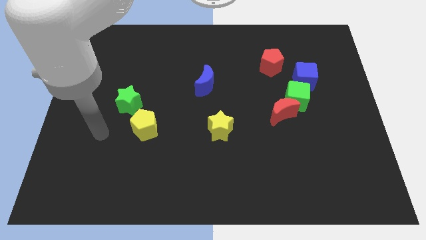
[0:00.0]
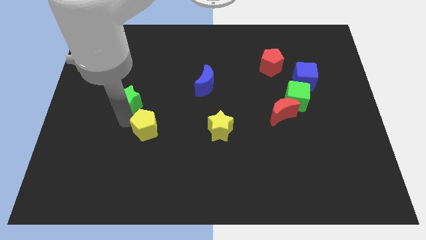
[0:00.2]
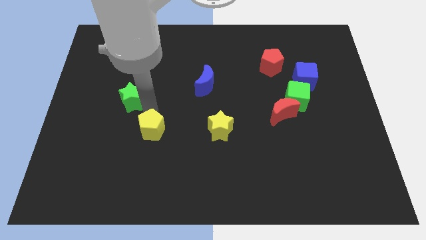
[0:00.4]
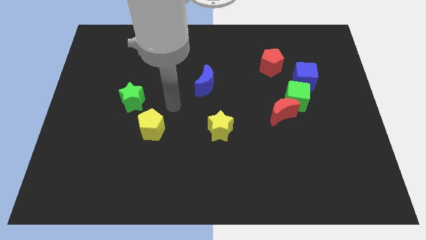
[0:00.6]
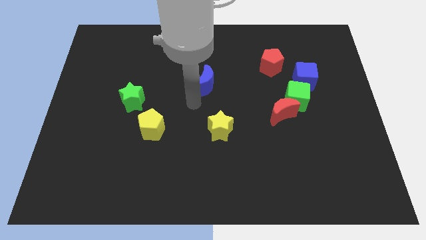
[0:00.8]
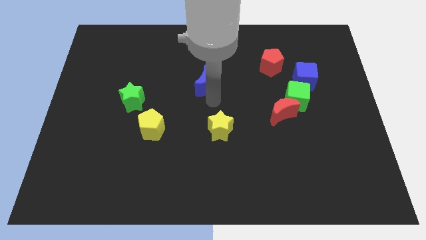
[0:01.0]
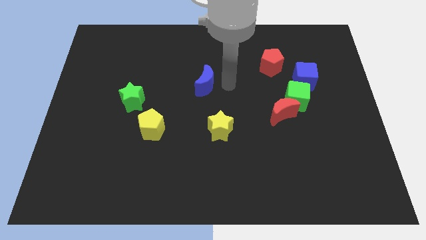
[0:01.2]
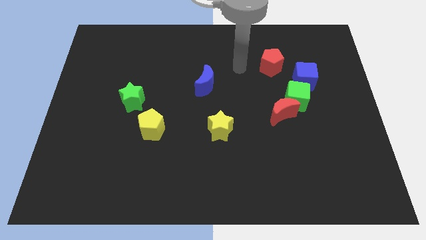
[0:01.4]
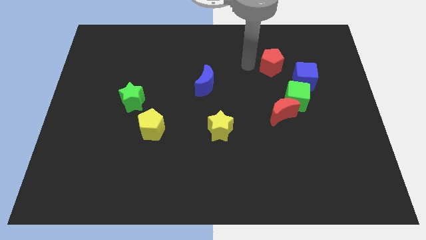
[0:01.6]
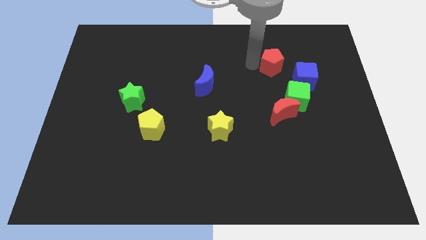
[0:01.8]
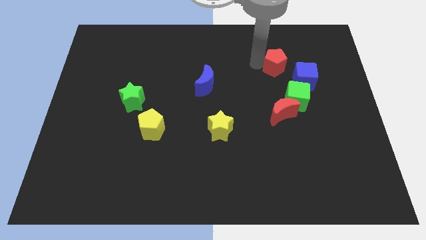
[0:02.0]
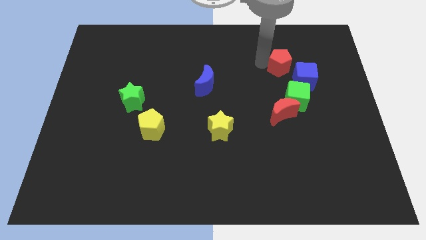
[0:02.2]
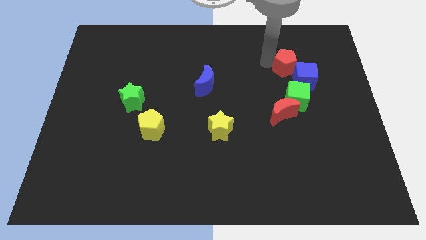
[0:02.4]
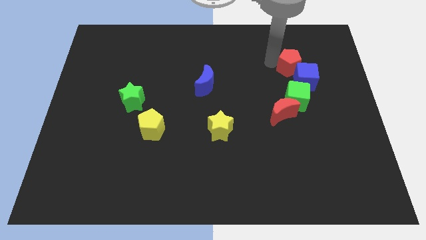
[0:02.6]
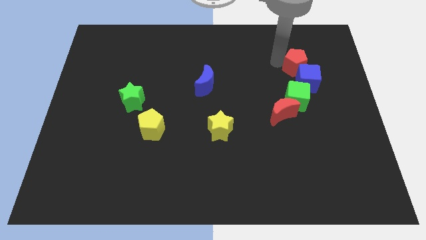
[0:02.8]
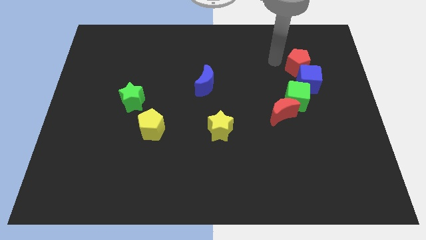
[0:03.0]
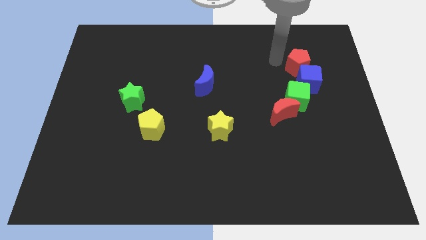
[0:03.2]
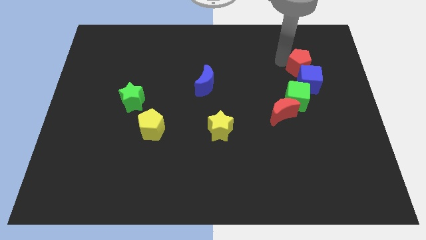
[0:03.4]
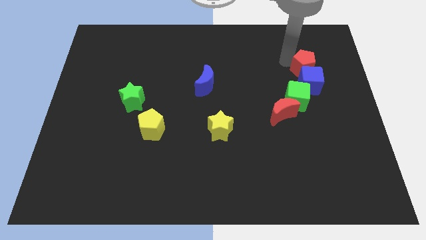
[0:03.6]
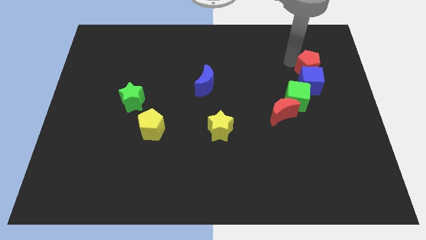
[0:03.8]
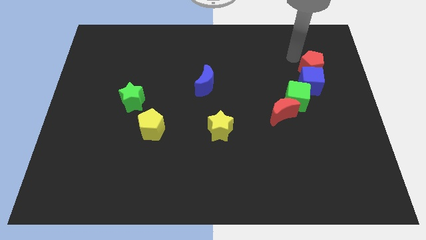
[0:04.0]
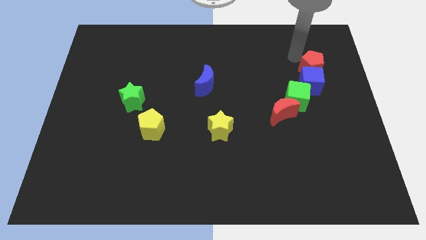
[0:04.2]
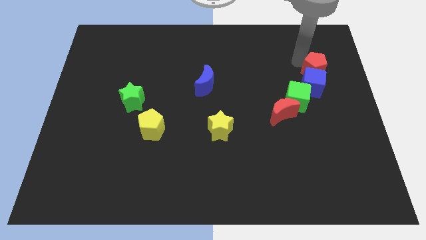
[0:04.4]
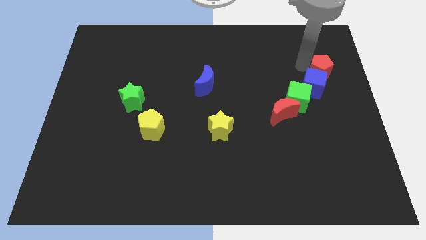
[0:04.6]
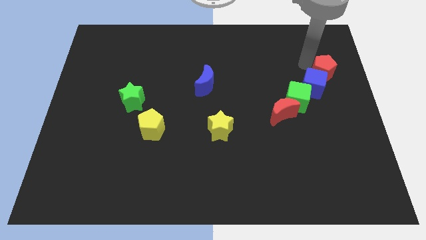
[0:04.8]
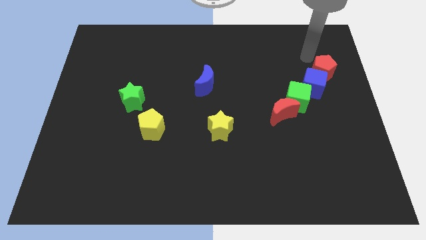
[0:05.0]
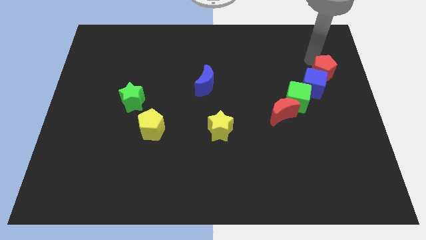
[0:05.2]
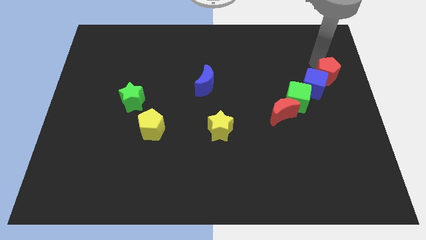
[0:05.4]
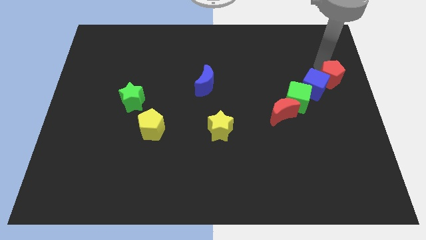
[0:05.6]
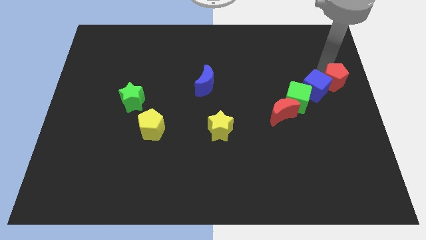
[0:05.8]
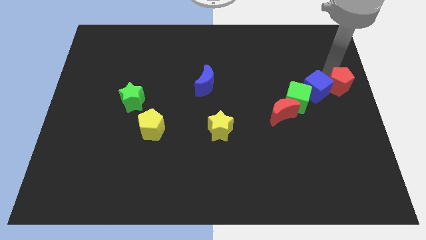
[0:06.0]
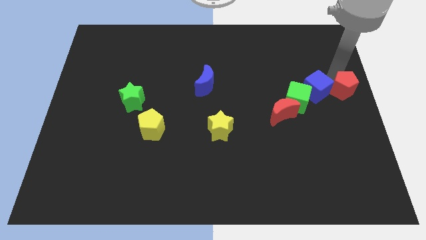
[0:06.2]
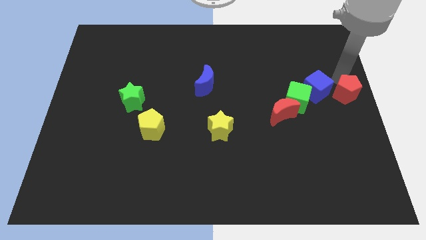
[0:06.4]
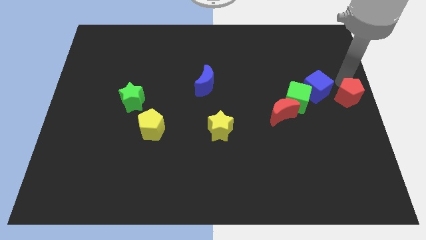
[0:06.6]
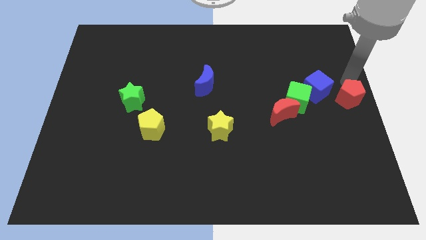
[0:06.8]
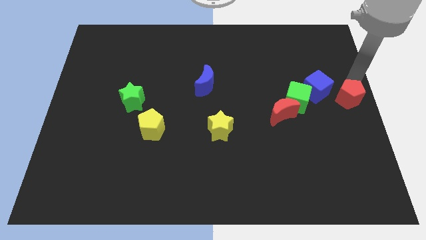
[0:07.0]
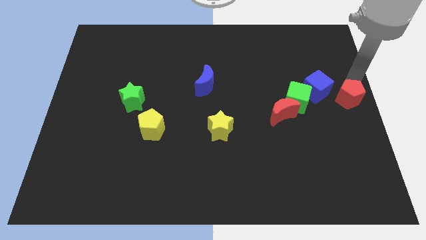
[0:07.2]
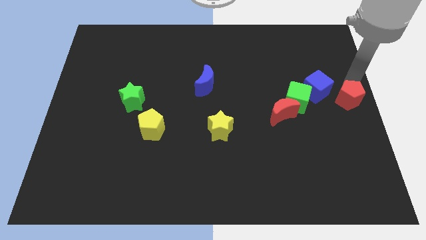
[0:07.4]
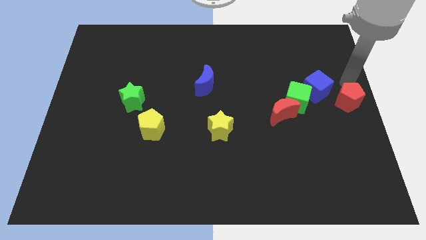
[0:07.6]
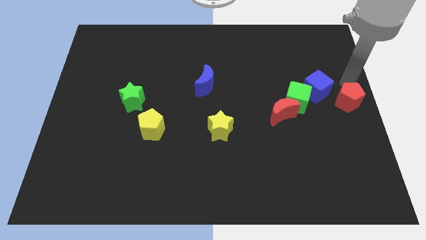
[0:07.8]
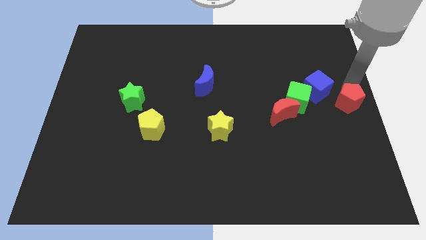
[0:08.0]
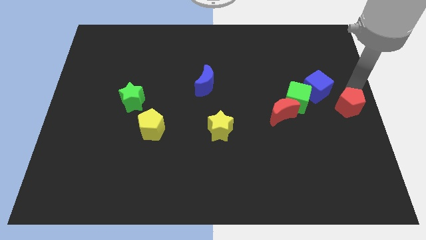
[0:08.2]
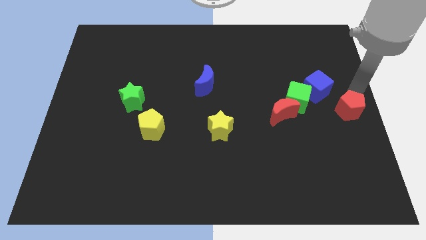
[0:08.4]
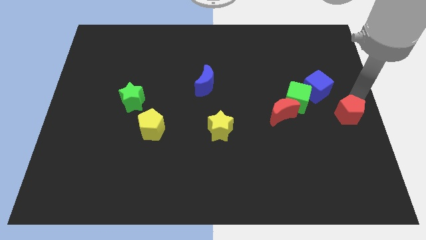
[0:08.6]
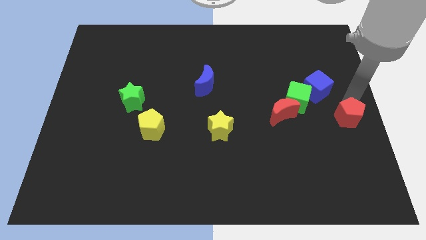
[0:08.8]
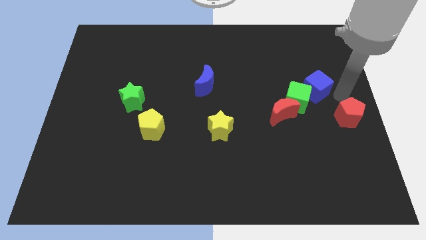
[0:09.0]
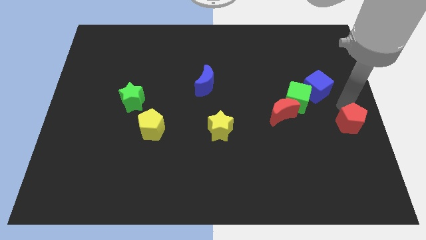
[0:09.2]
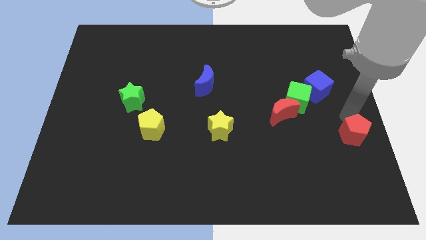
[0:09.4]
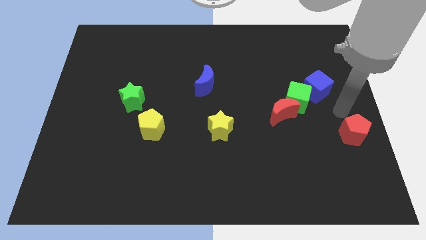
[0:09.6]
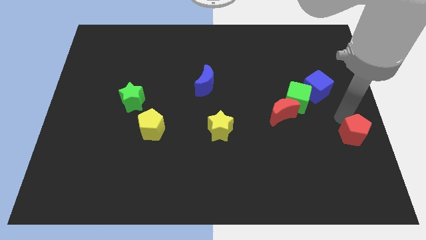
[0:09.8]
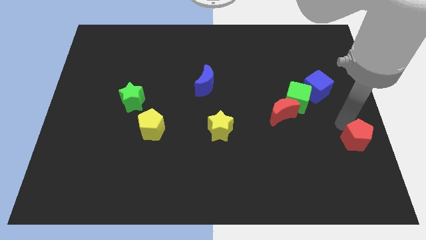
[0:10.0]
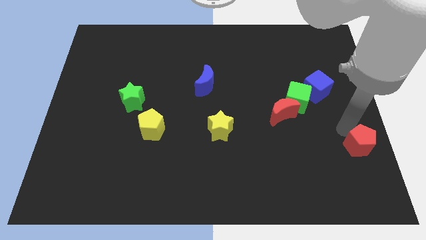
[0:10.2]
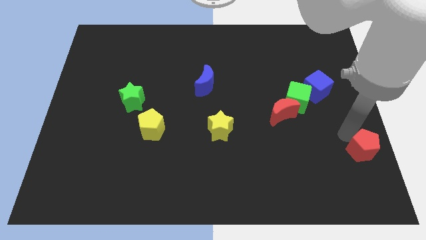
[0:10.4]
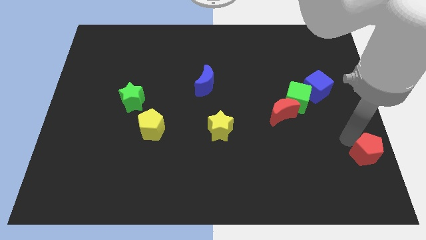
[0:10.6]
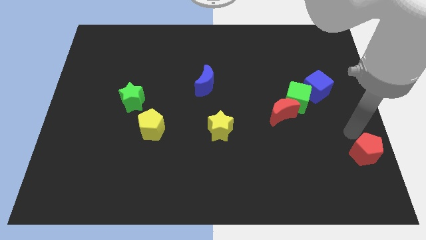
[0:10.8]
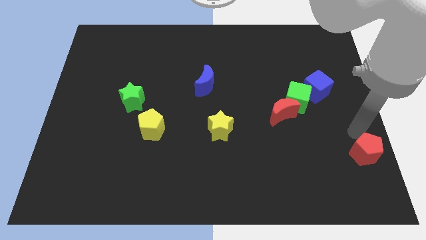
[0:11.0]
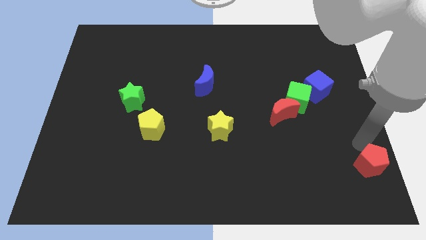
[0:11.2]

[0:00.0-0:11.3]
slide the red pentagon to the bottom right of the board

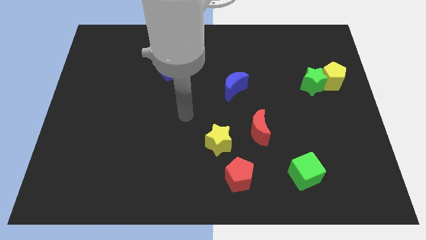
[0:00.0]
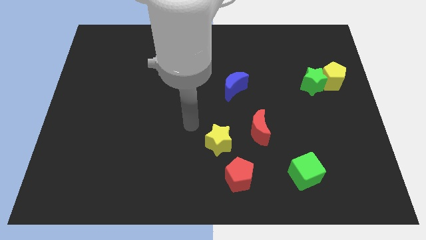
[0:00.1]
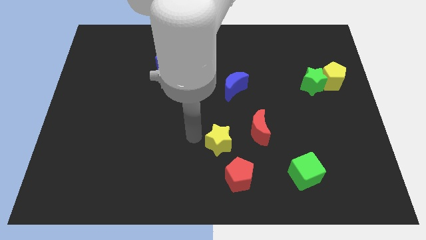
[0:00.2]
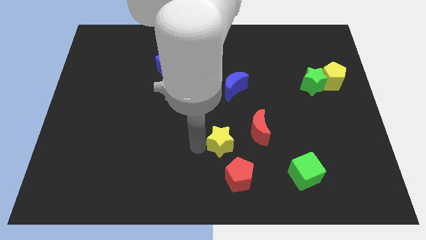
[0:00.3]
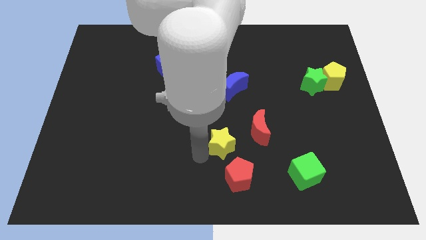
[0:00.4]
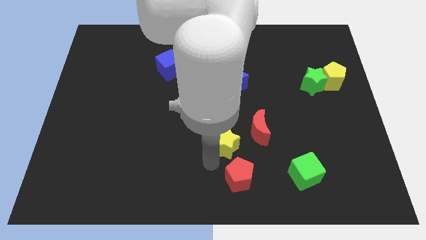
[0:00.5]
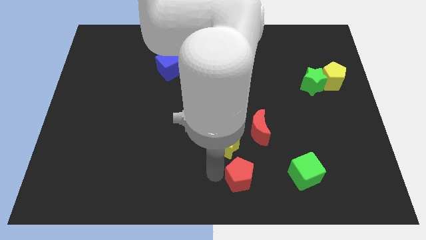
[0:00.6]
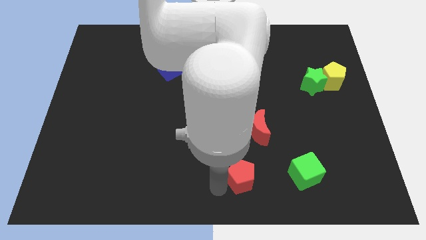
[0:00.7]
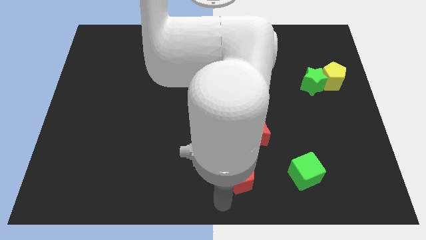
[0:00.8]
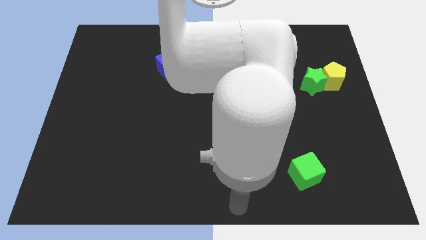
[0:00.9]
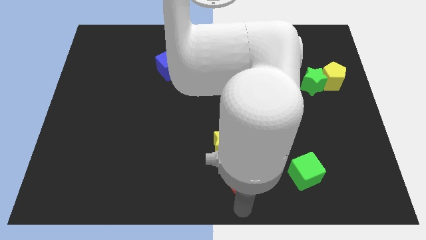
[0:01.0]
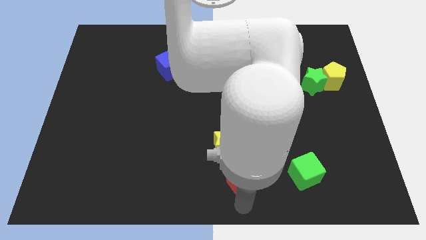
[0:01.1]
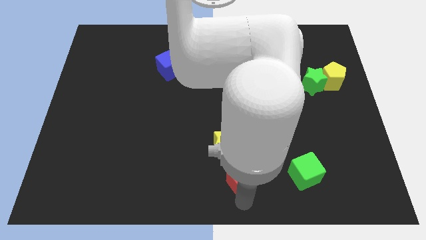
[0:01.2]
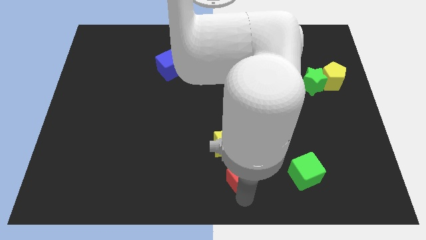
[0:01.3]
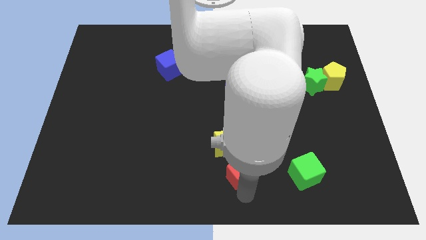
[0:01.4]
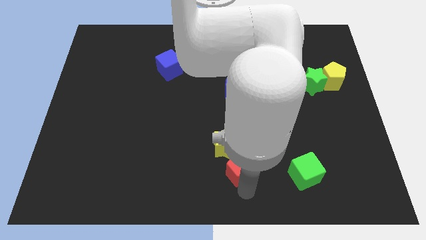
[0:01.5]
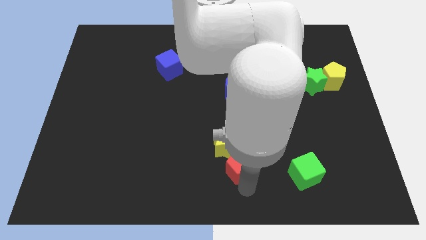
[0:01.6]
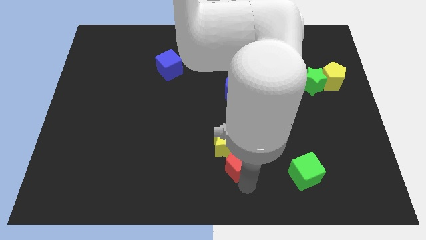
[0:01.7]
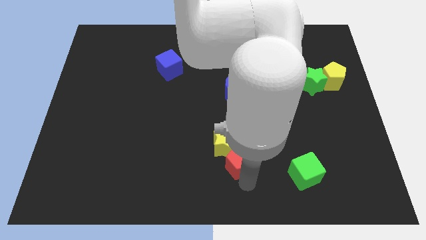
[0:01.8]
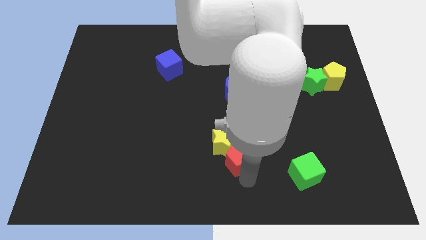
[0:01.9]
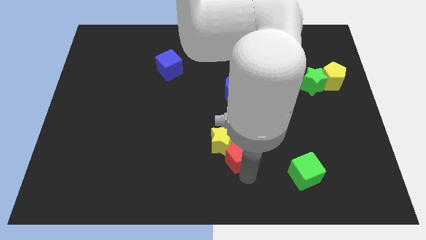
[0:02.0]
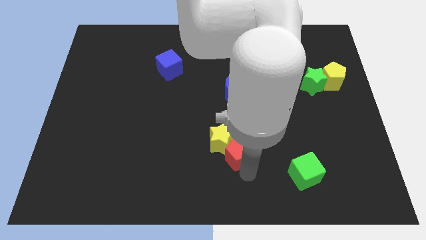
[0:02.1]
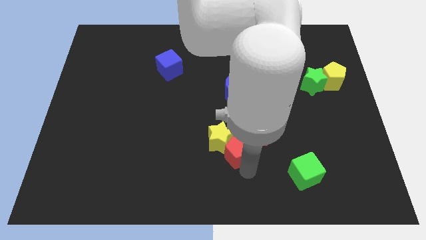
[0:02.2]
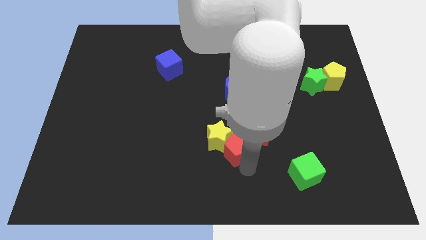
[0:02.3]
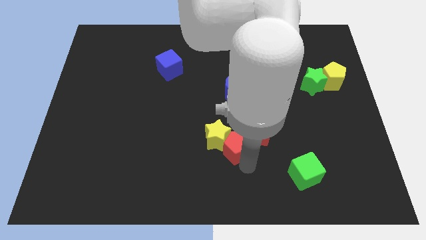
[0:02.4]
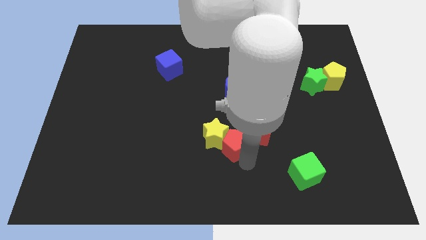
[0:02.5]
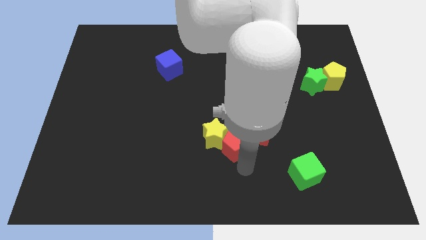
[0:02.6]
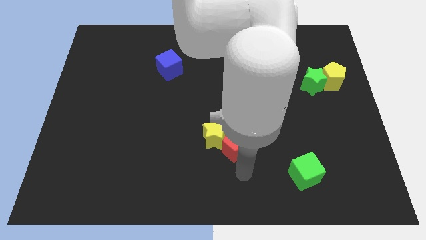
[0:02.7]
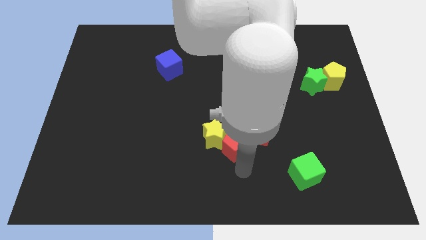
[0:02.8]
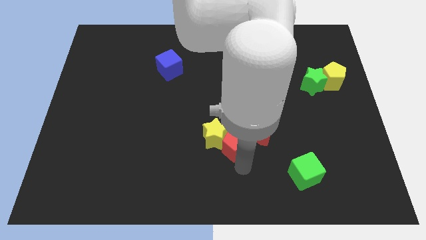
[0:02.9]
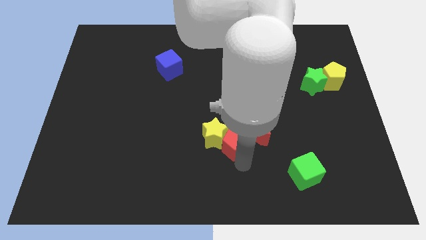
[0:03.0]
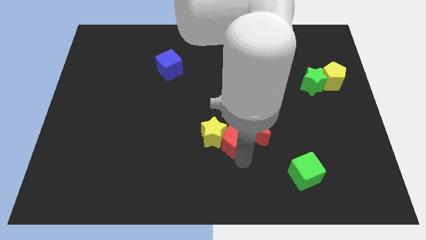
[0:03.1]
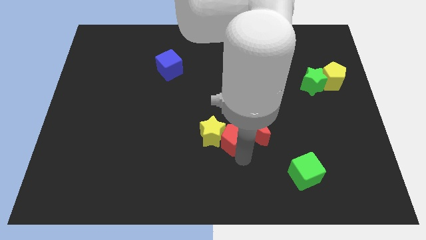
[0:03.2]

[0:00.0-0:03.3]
push the red pentagon to the middle
